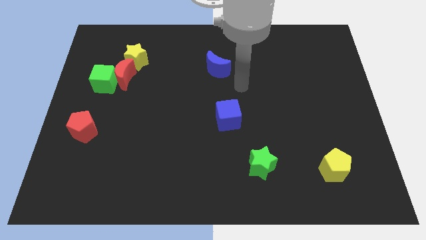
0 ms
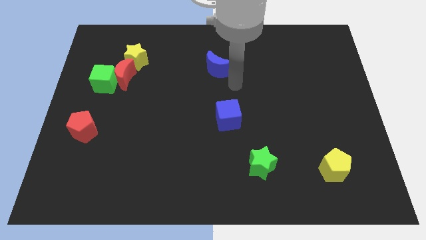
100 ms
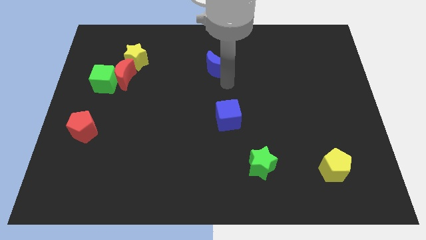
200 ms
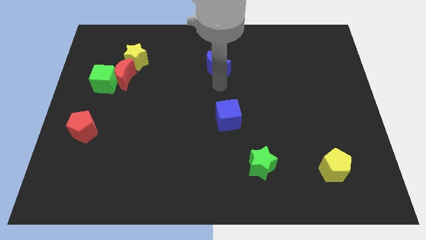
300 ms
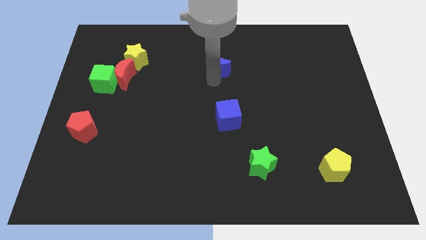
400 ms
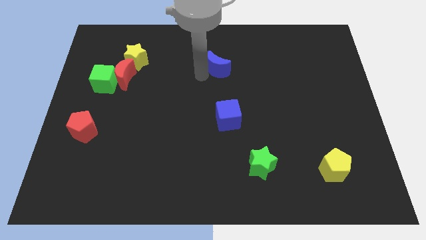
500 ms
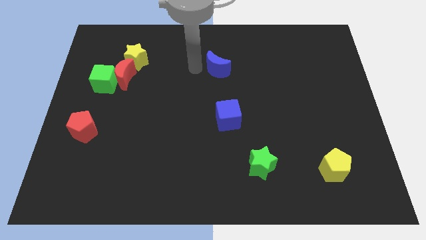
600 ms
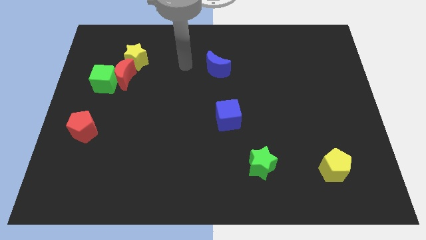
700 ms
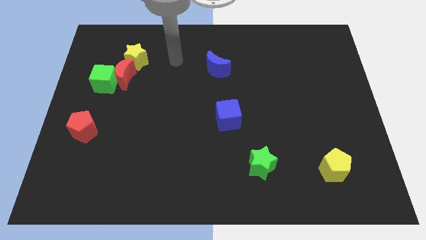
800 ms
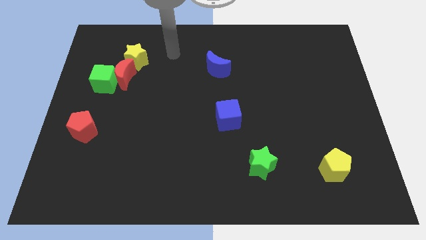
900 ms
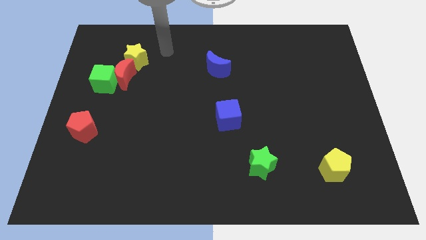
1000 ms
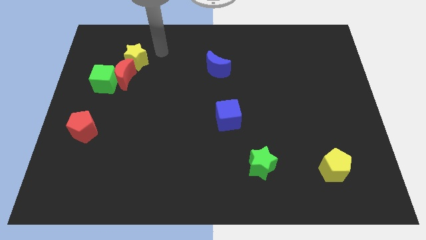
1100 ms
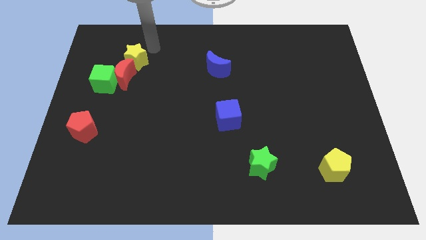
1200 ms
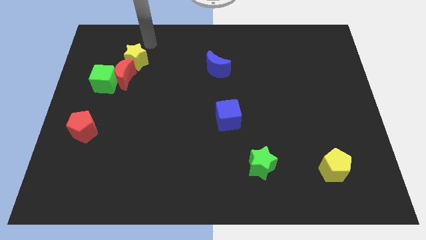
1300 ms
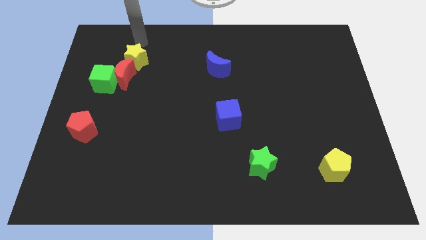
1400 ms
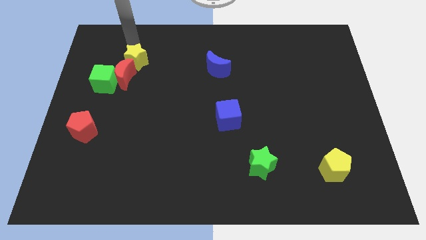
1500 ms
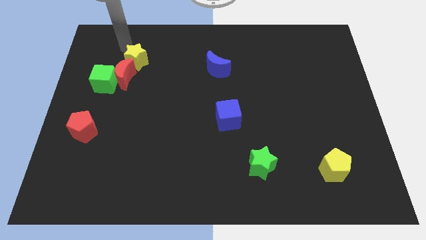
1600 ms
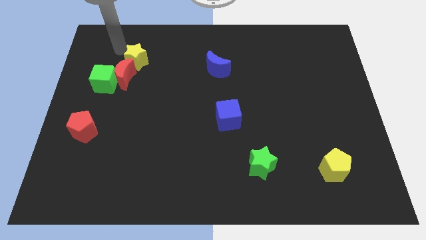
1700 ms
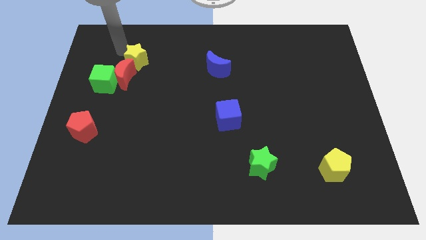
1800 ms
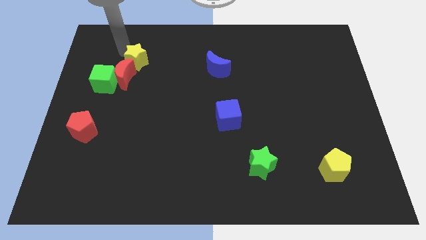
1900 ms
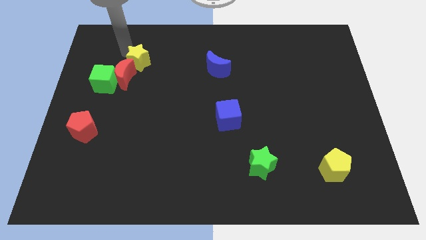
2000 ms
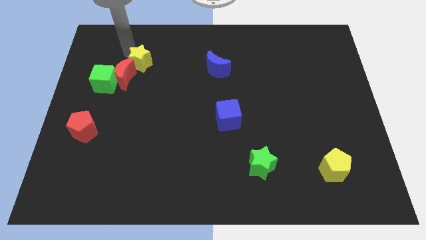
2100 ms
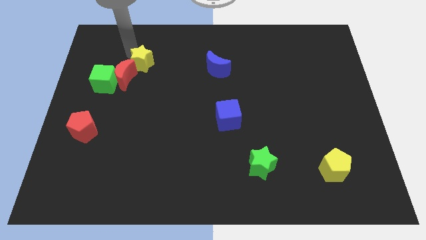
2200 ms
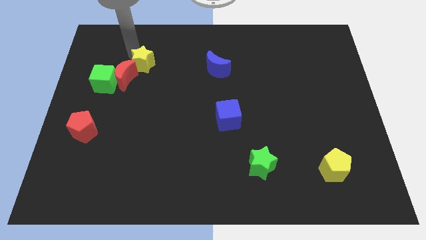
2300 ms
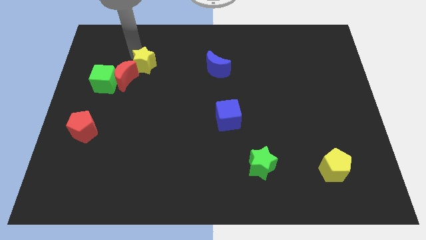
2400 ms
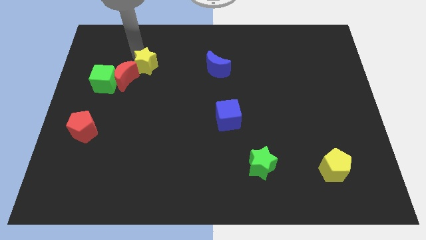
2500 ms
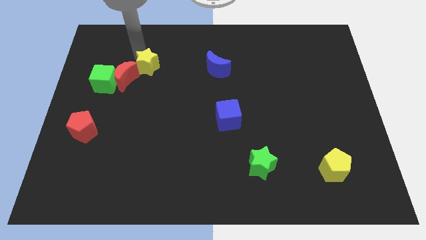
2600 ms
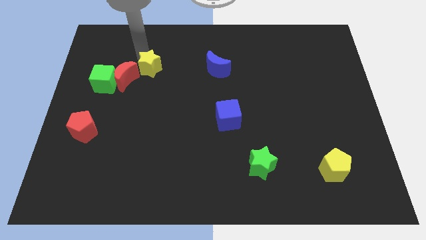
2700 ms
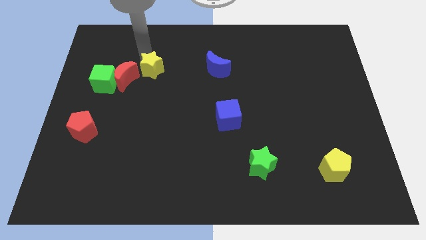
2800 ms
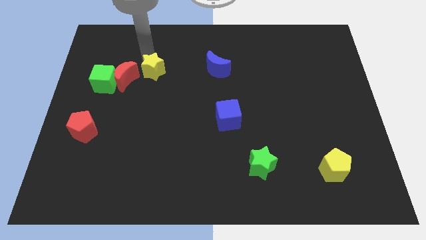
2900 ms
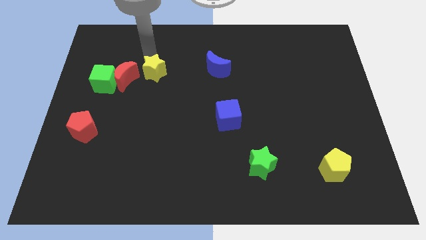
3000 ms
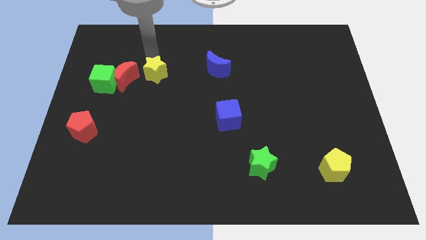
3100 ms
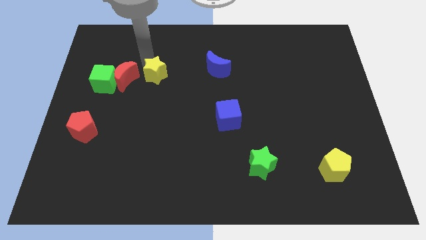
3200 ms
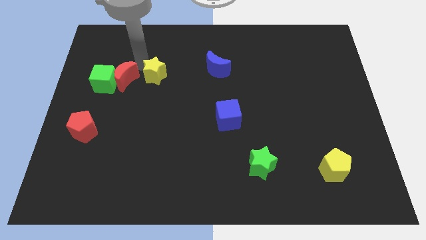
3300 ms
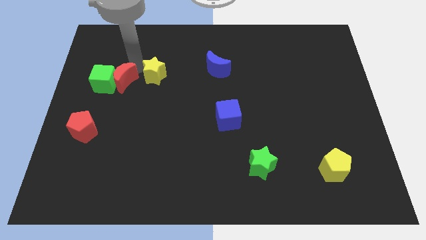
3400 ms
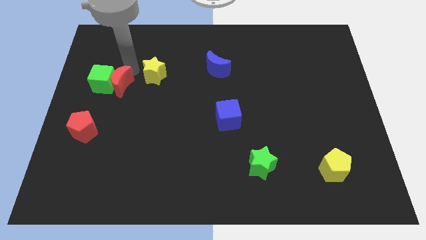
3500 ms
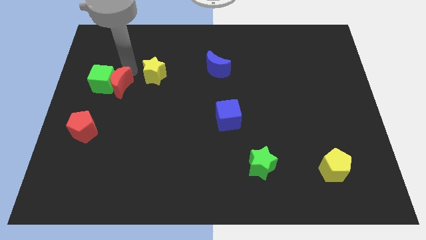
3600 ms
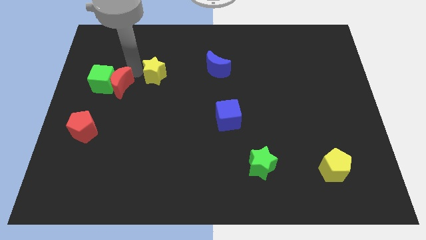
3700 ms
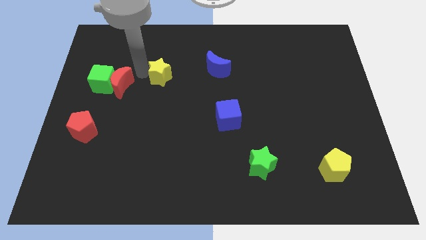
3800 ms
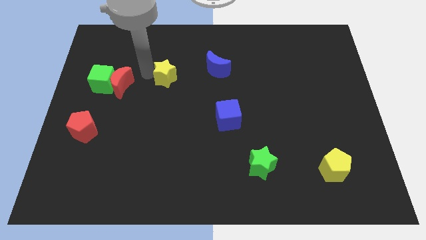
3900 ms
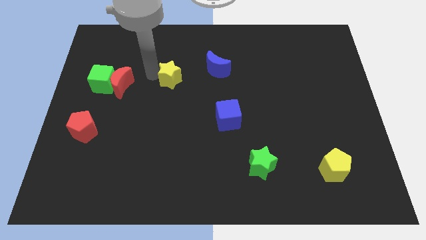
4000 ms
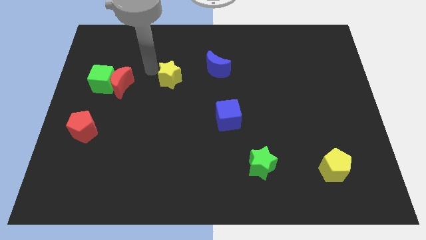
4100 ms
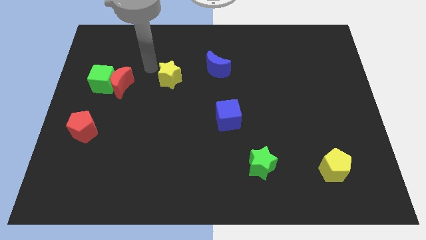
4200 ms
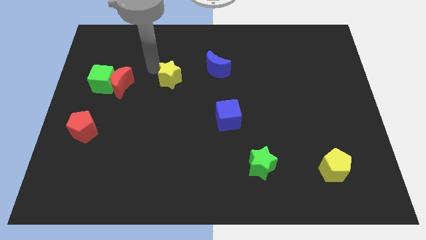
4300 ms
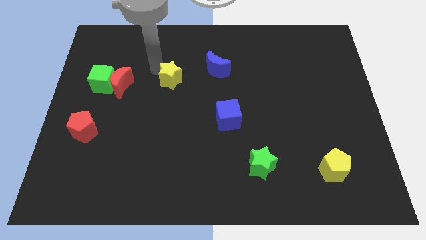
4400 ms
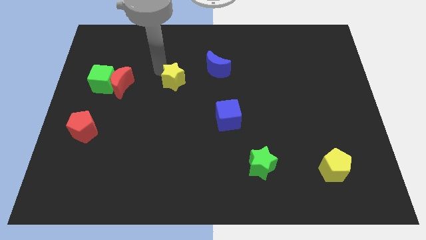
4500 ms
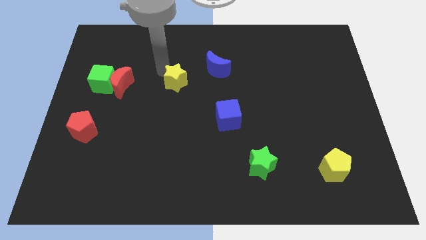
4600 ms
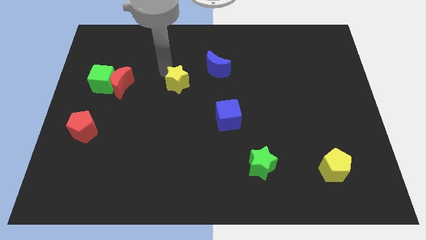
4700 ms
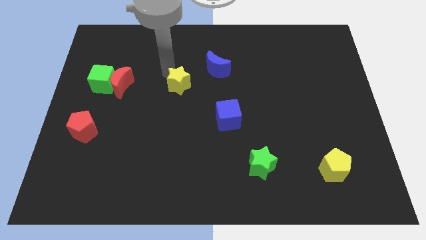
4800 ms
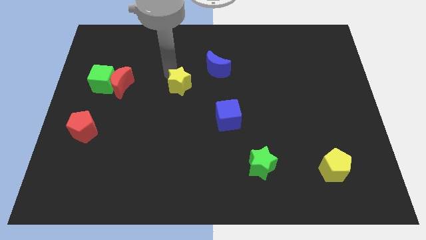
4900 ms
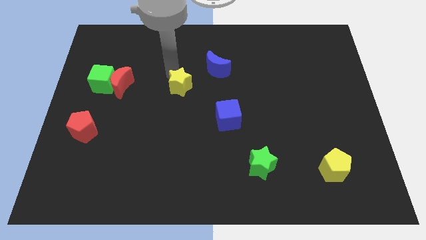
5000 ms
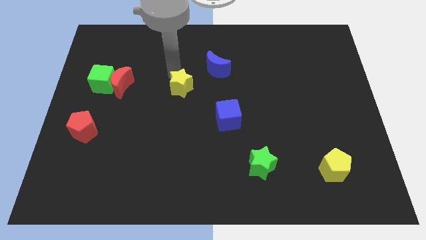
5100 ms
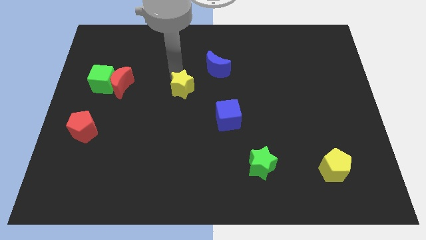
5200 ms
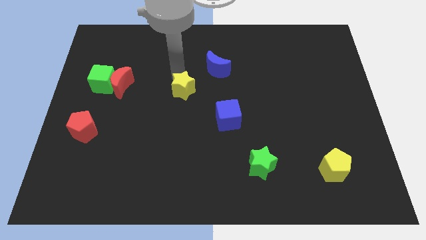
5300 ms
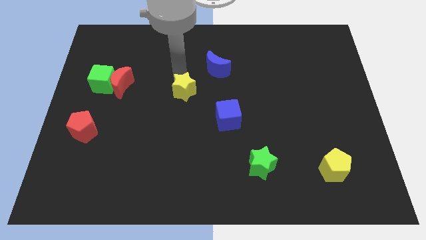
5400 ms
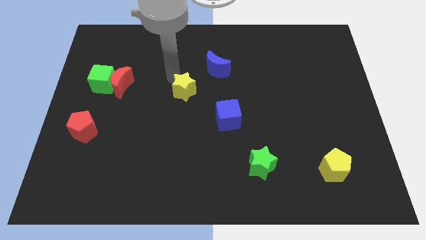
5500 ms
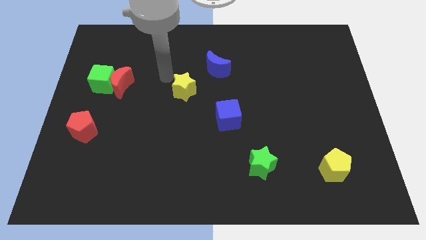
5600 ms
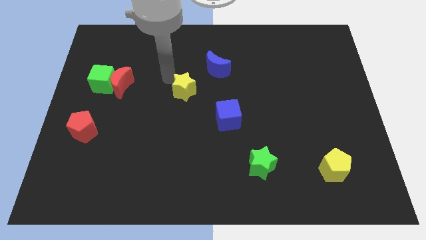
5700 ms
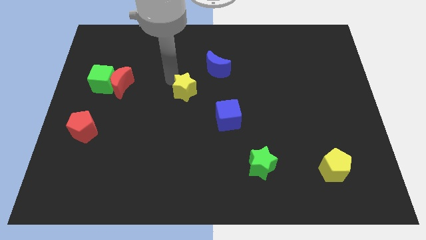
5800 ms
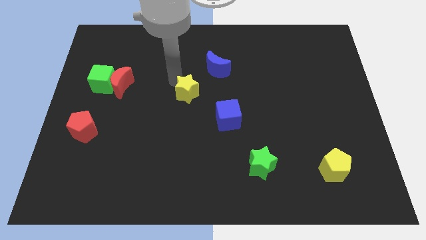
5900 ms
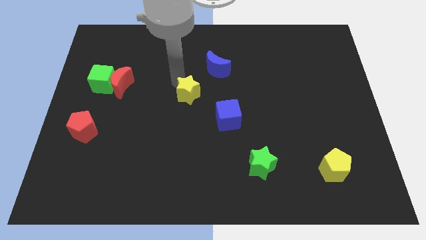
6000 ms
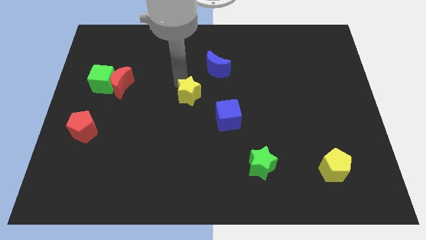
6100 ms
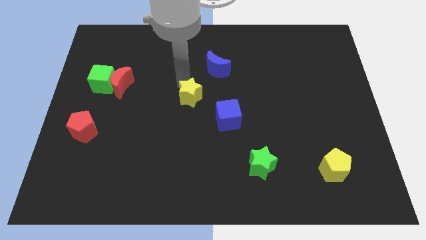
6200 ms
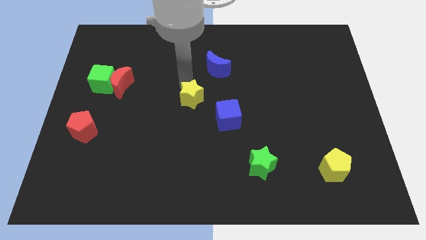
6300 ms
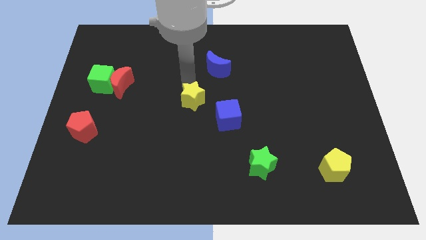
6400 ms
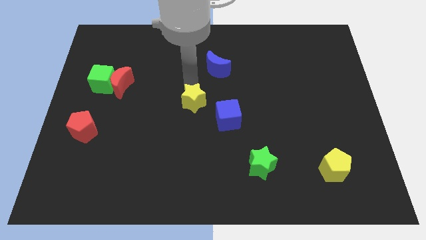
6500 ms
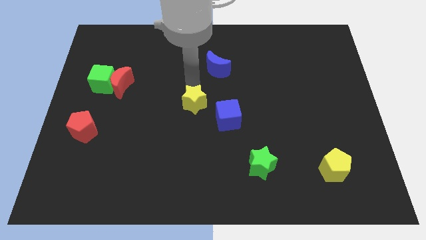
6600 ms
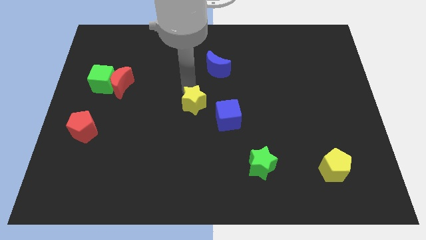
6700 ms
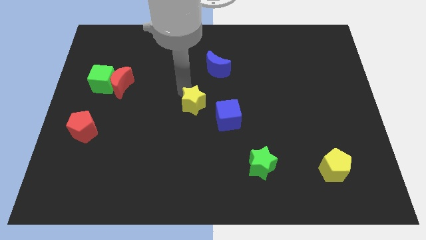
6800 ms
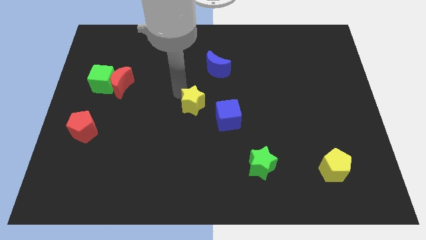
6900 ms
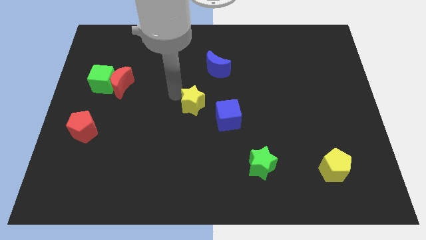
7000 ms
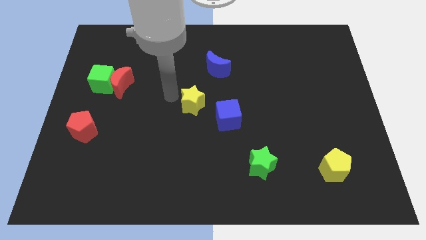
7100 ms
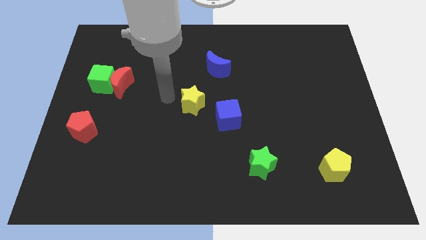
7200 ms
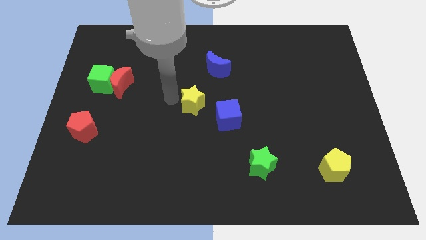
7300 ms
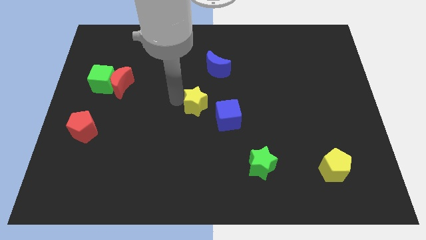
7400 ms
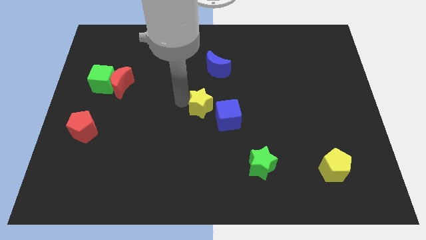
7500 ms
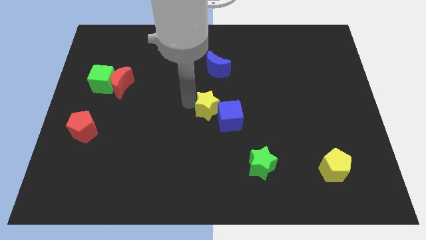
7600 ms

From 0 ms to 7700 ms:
push the yellow star close to the blue cube

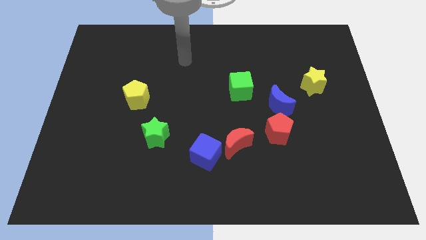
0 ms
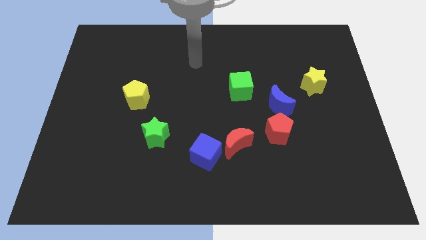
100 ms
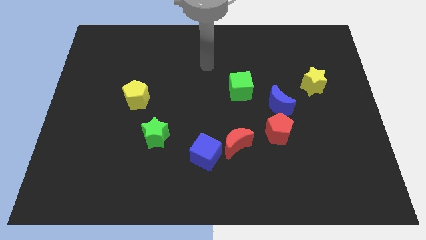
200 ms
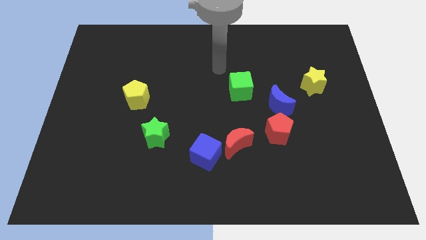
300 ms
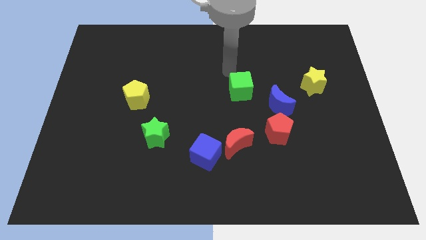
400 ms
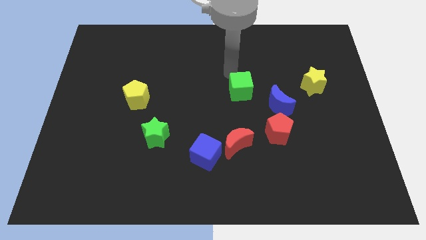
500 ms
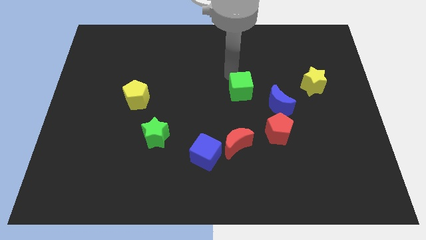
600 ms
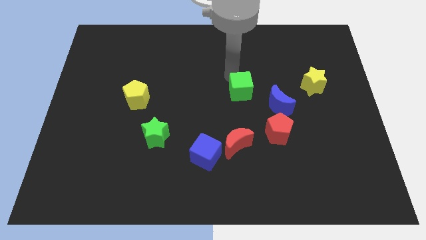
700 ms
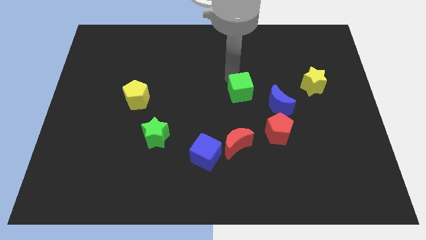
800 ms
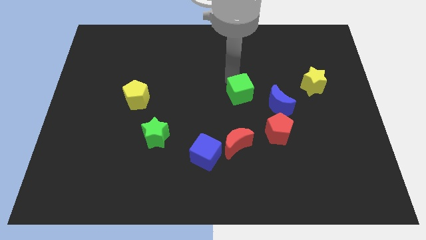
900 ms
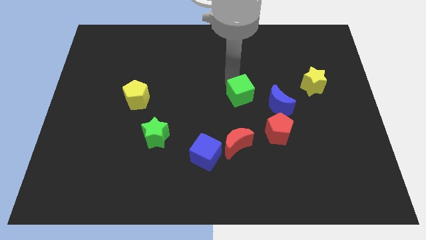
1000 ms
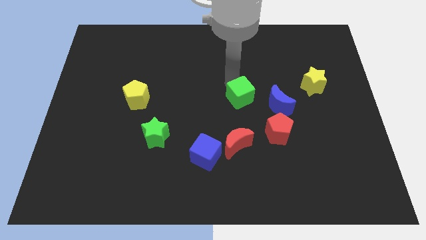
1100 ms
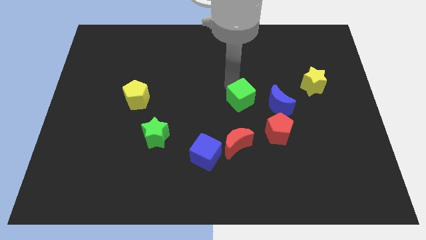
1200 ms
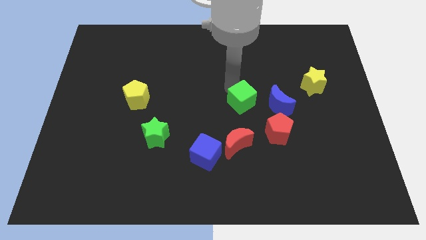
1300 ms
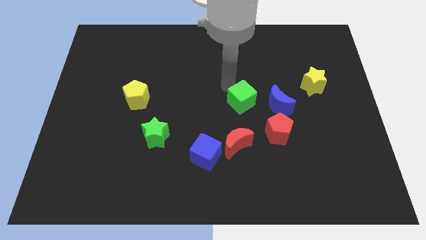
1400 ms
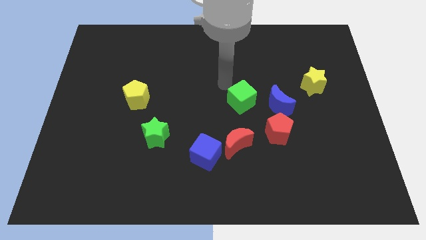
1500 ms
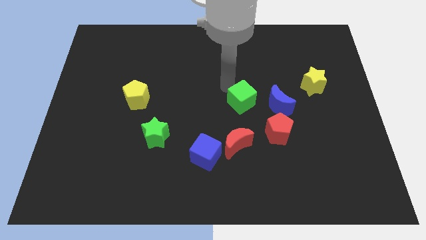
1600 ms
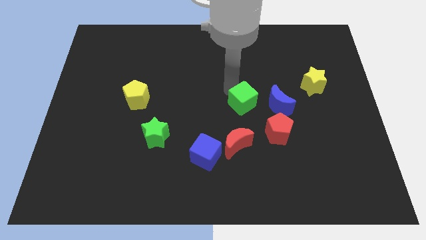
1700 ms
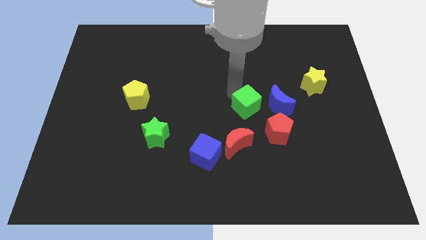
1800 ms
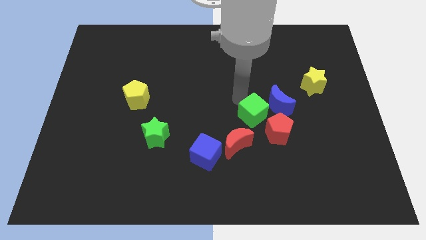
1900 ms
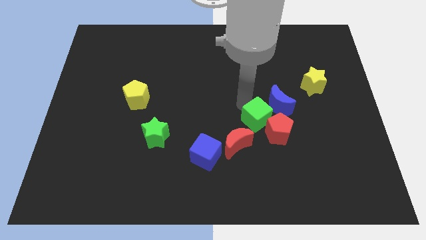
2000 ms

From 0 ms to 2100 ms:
slide the green cube close to the red pentagon
